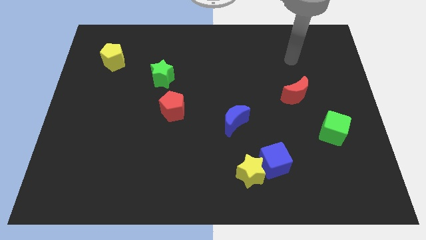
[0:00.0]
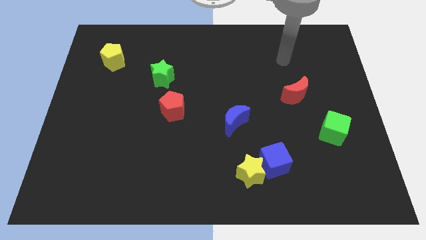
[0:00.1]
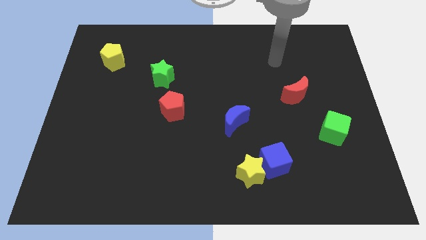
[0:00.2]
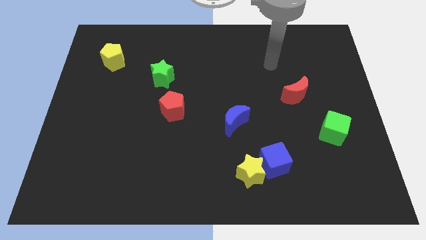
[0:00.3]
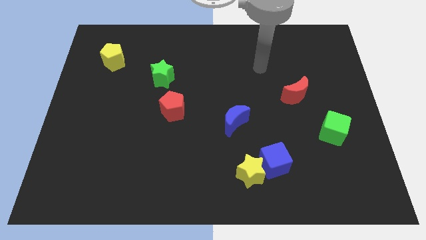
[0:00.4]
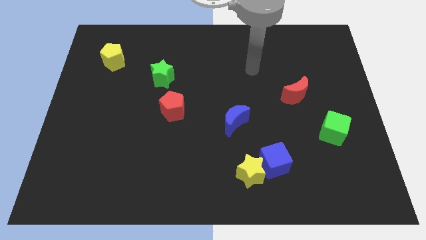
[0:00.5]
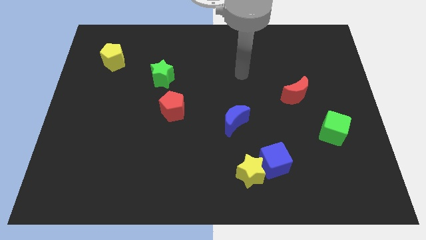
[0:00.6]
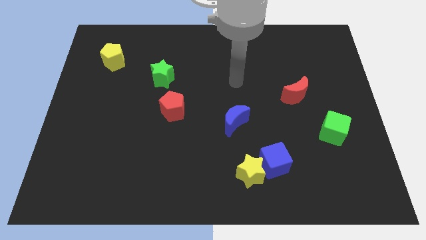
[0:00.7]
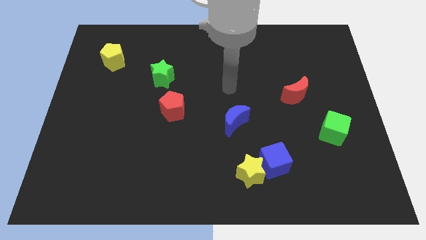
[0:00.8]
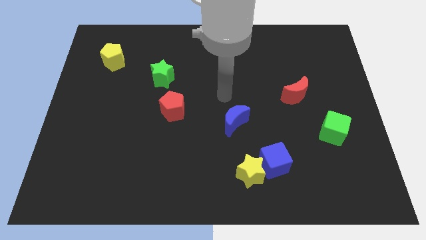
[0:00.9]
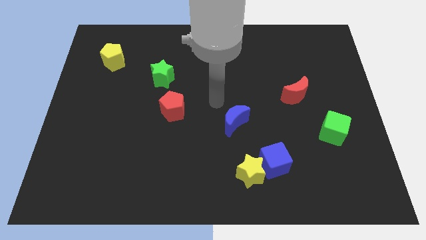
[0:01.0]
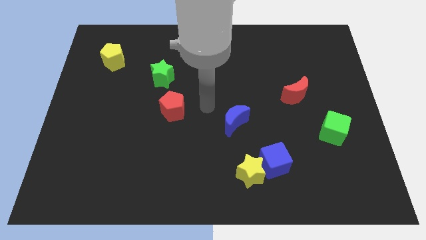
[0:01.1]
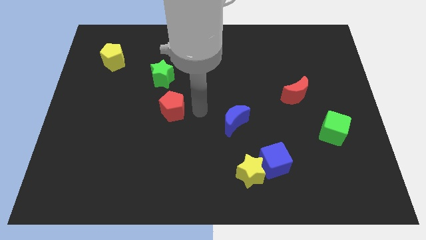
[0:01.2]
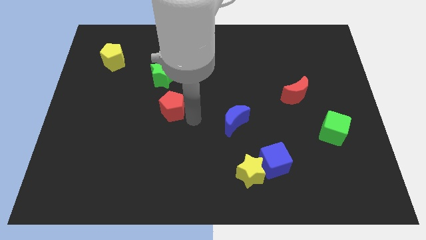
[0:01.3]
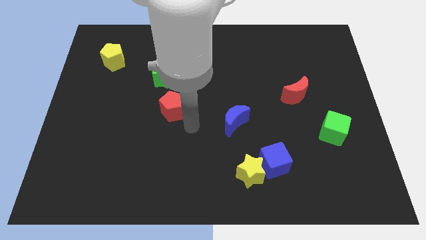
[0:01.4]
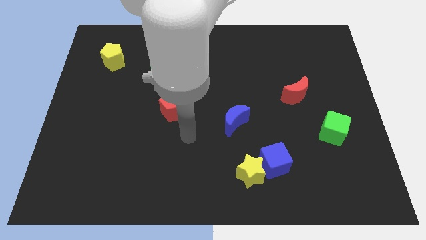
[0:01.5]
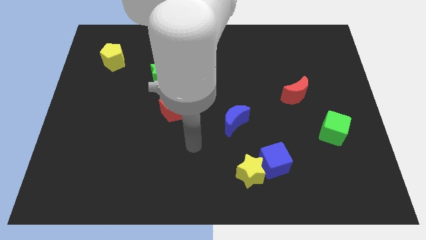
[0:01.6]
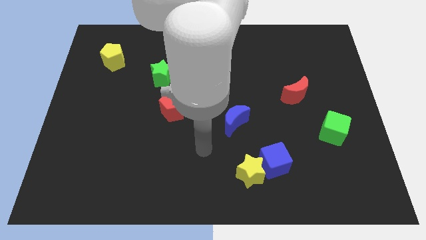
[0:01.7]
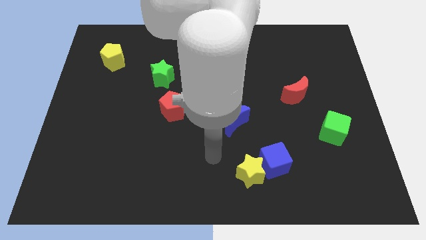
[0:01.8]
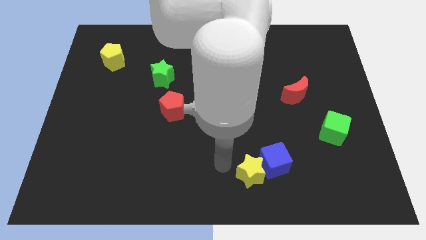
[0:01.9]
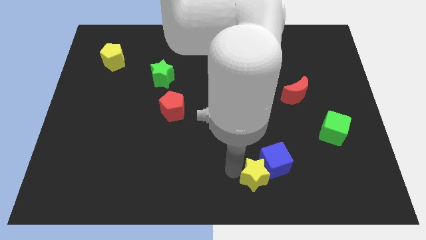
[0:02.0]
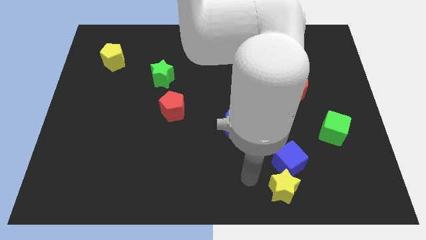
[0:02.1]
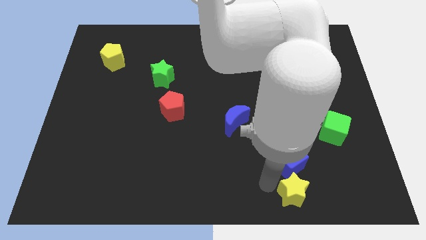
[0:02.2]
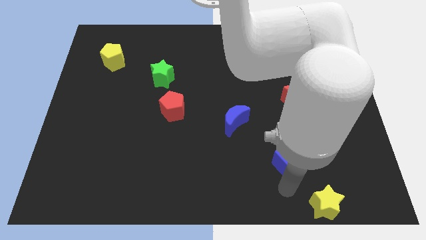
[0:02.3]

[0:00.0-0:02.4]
pull the blue cube apart from the yellow star

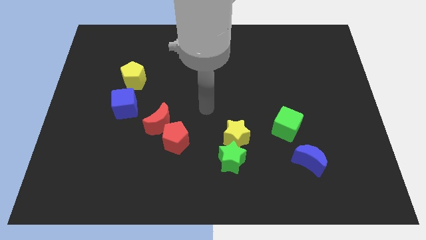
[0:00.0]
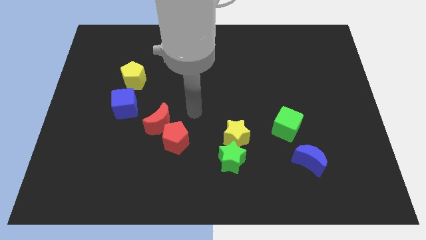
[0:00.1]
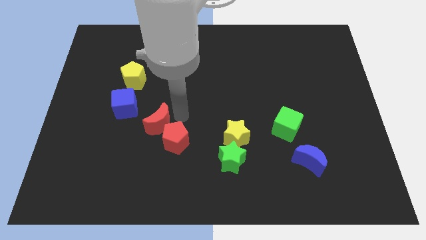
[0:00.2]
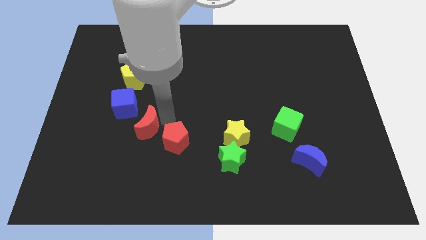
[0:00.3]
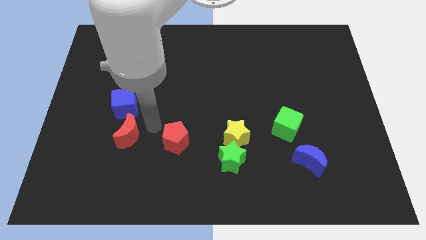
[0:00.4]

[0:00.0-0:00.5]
pull the red pentagon apart from the red moon

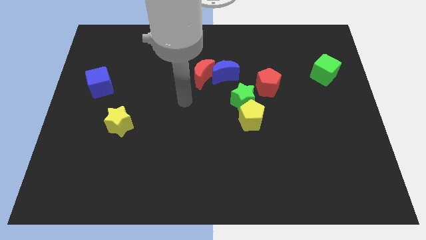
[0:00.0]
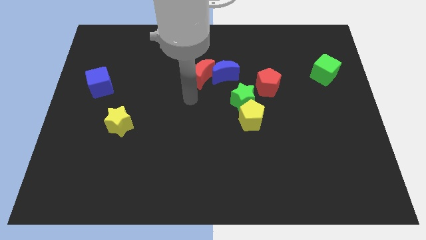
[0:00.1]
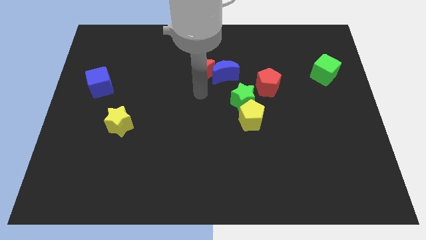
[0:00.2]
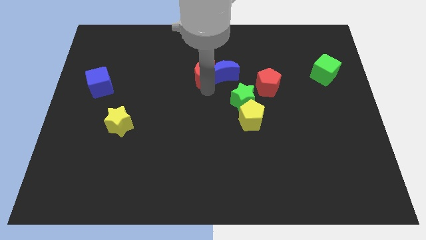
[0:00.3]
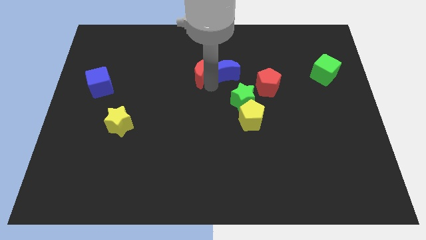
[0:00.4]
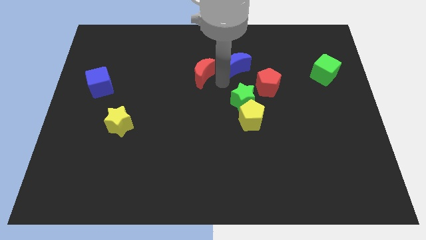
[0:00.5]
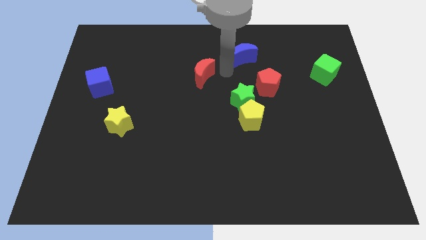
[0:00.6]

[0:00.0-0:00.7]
move the red moon away from the blue moon

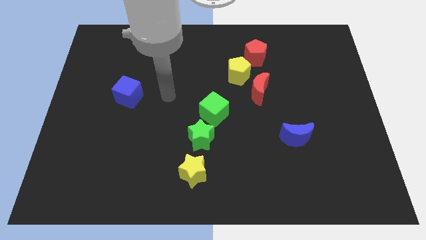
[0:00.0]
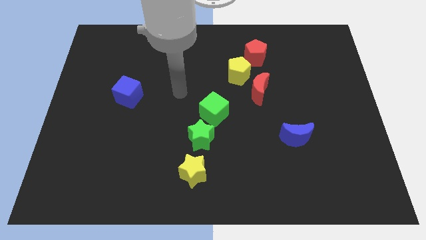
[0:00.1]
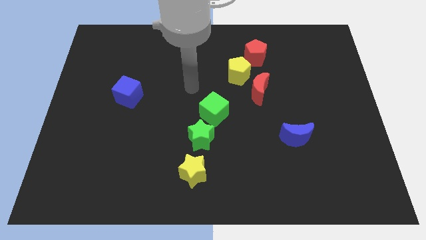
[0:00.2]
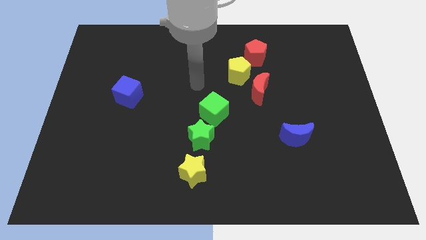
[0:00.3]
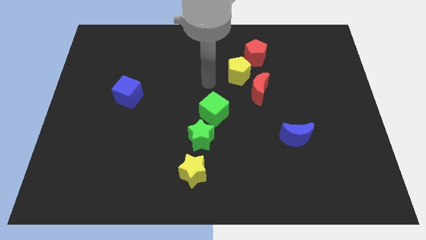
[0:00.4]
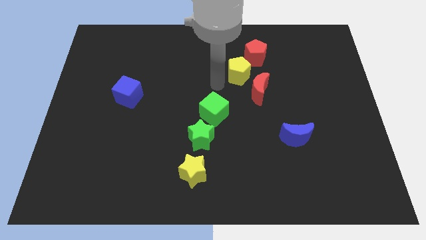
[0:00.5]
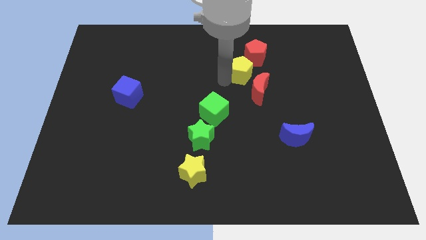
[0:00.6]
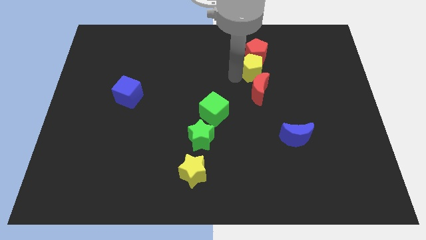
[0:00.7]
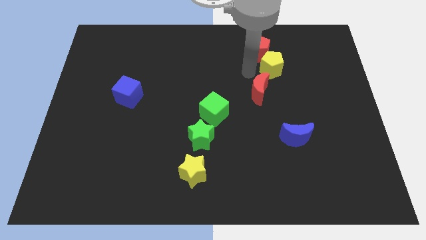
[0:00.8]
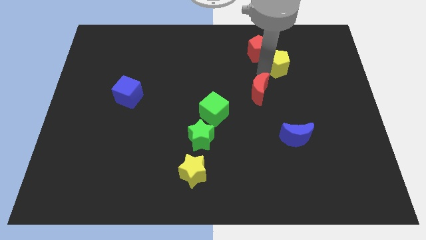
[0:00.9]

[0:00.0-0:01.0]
pull the red moon apart from the yellow pentagon

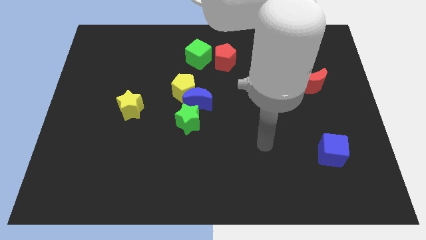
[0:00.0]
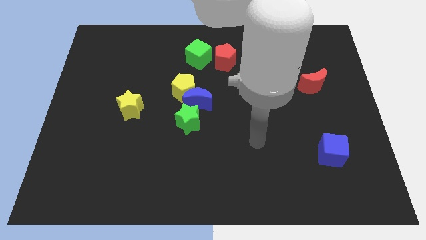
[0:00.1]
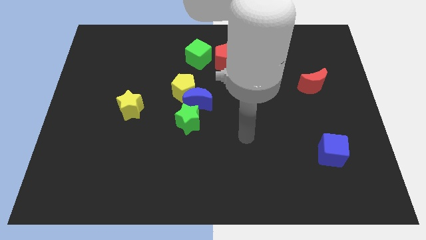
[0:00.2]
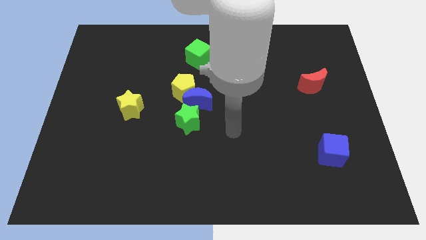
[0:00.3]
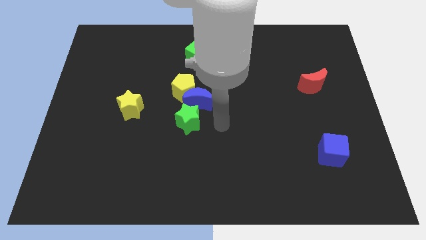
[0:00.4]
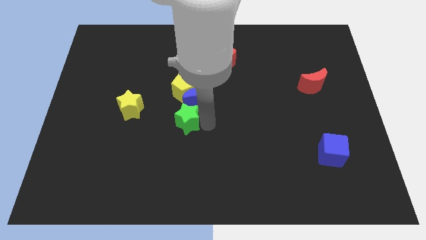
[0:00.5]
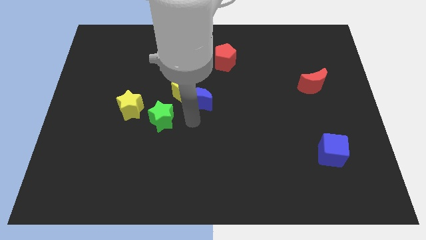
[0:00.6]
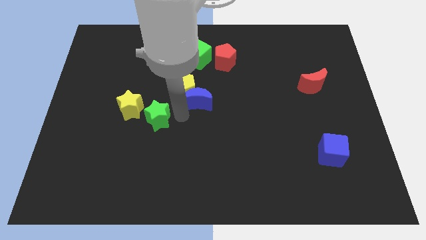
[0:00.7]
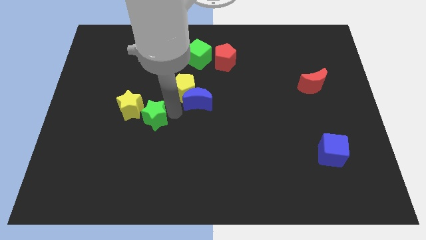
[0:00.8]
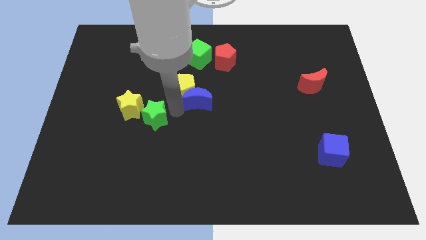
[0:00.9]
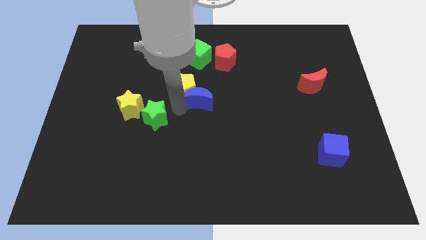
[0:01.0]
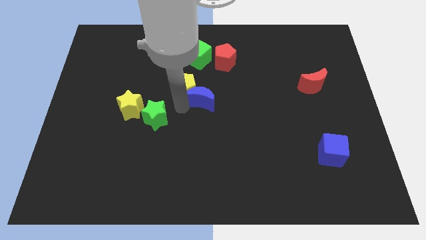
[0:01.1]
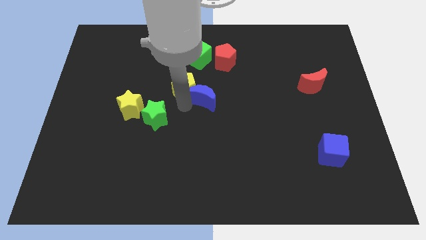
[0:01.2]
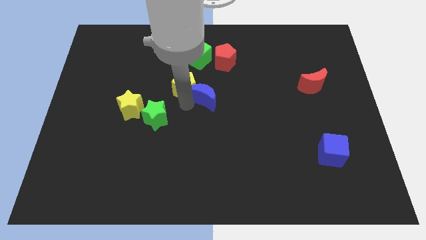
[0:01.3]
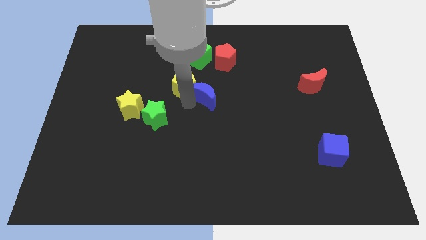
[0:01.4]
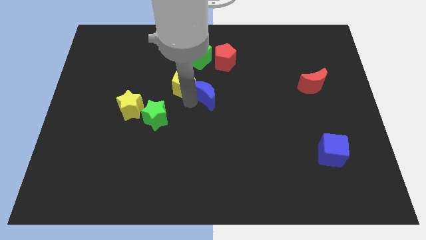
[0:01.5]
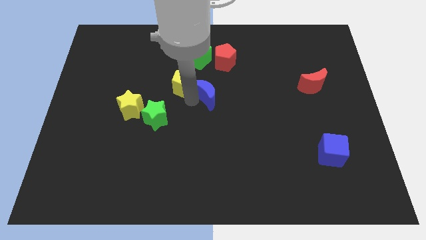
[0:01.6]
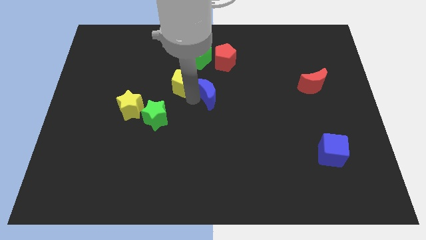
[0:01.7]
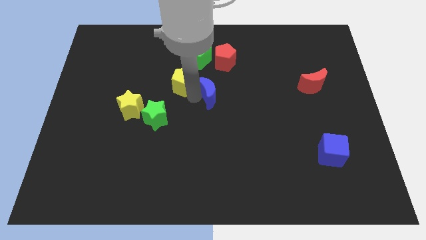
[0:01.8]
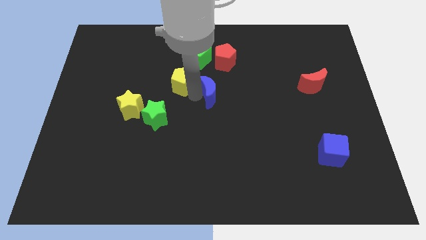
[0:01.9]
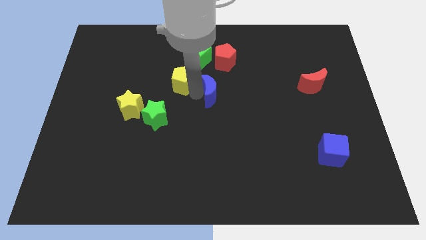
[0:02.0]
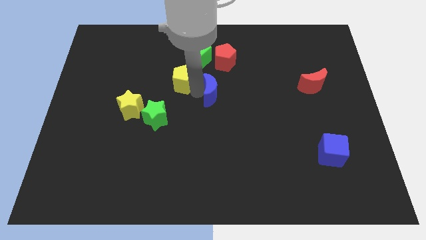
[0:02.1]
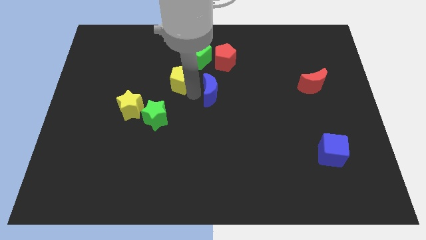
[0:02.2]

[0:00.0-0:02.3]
pull the blue moon apart from the yellow pentagon and green star

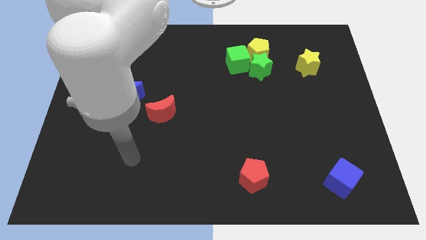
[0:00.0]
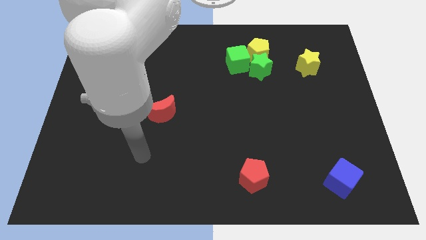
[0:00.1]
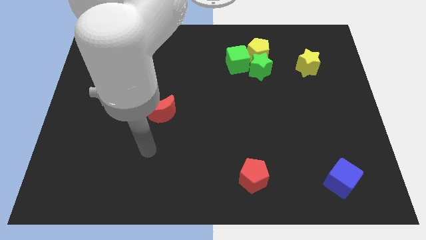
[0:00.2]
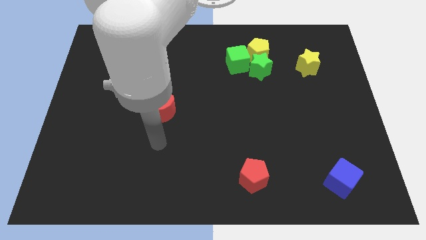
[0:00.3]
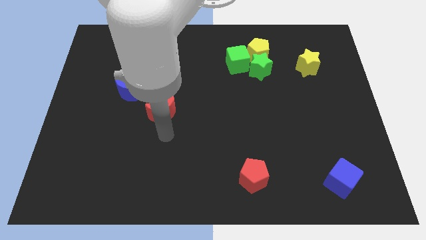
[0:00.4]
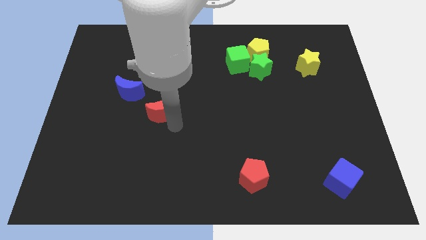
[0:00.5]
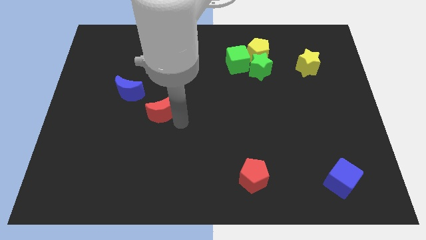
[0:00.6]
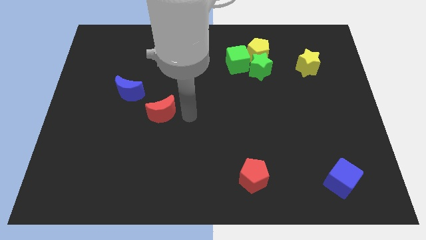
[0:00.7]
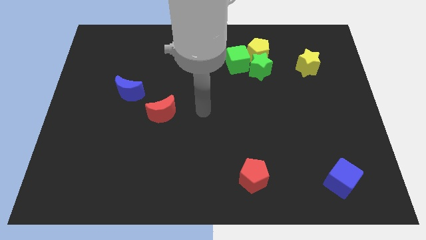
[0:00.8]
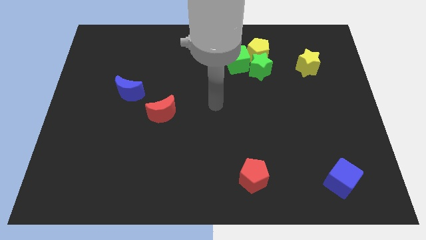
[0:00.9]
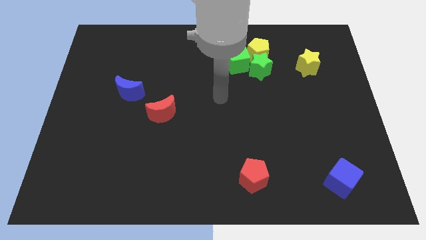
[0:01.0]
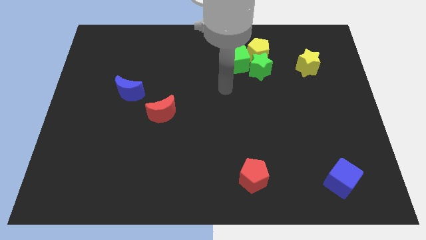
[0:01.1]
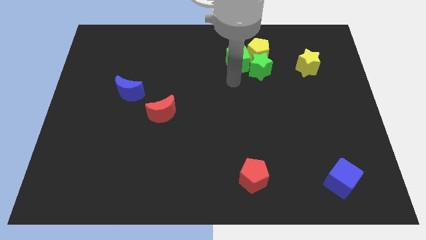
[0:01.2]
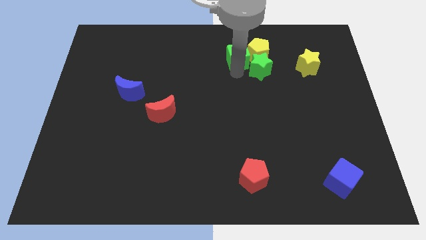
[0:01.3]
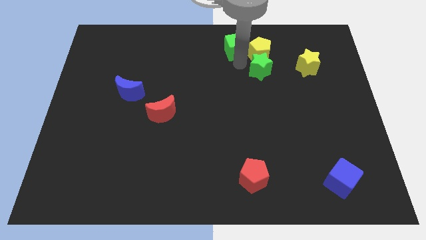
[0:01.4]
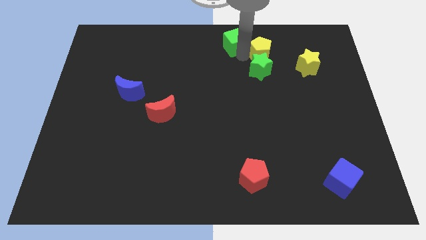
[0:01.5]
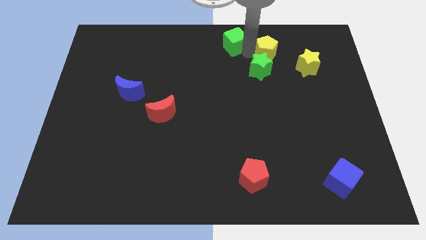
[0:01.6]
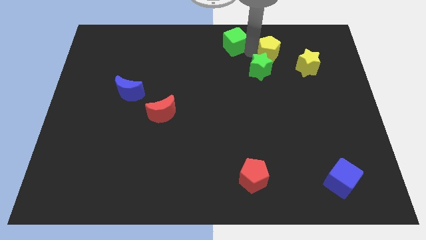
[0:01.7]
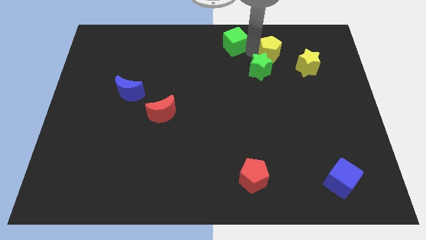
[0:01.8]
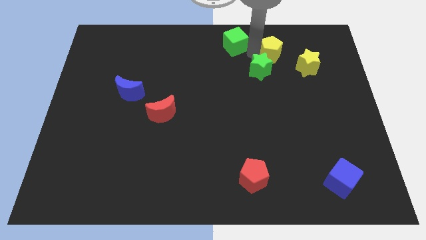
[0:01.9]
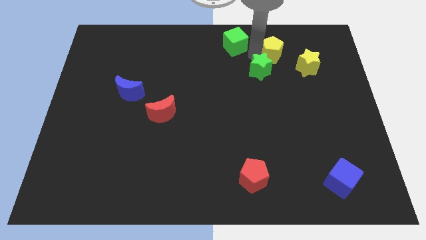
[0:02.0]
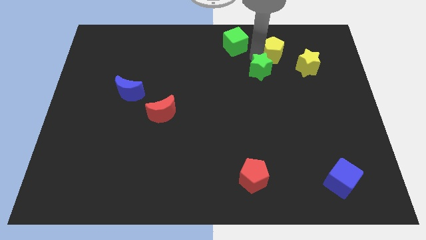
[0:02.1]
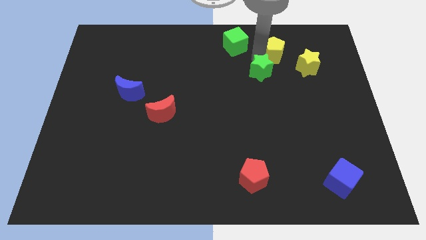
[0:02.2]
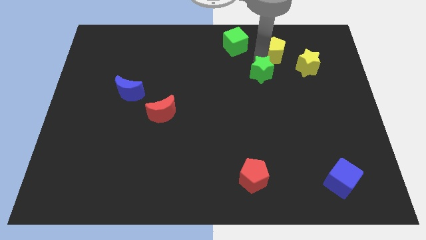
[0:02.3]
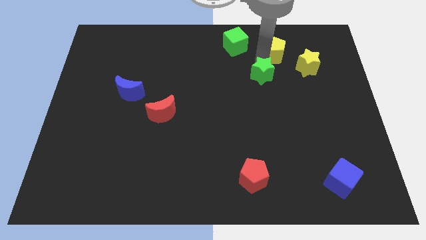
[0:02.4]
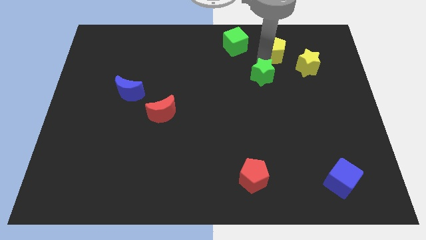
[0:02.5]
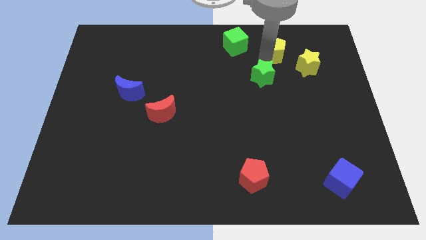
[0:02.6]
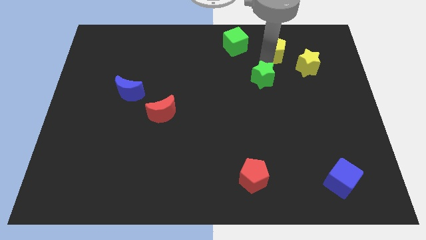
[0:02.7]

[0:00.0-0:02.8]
separate the green star from the yellow pentagon and green cube
